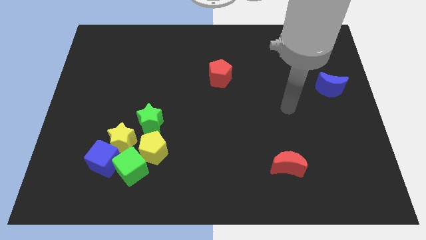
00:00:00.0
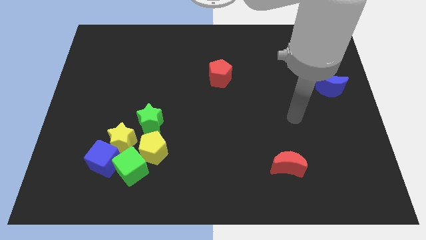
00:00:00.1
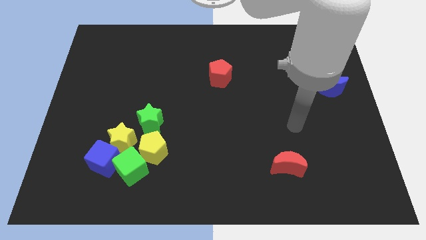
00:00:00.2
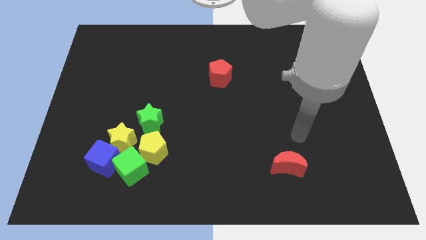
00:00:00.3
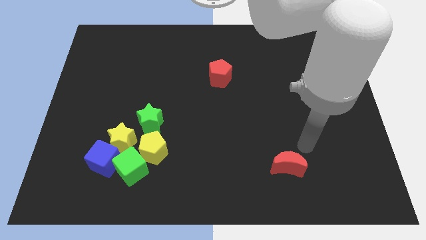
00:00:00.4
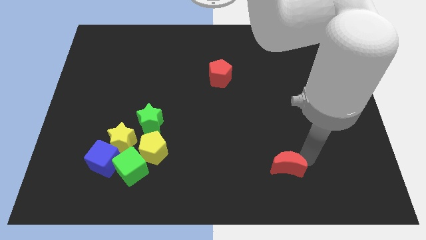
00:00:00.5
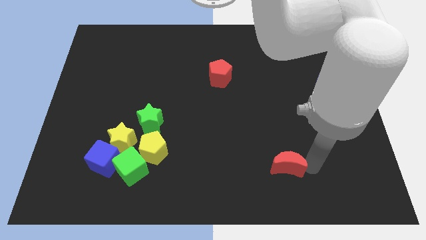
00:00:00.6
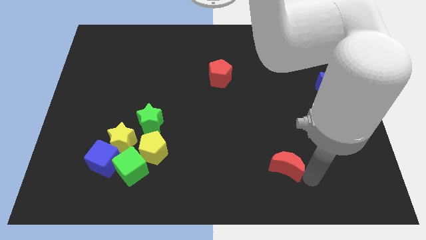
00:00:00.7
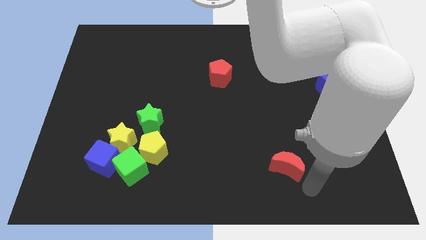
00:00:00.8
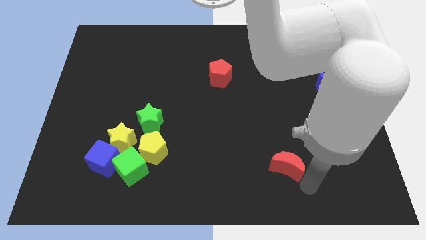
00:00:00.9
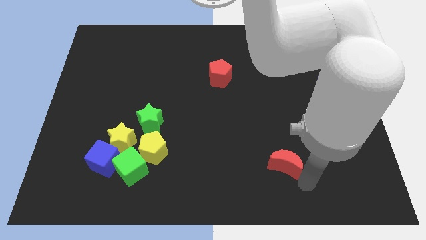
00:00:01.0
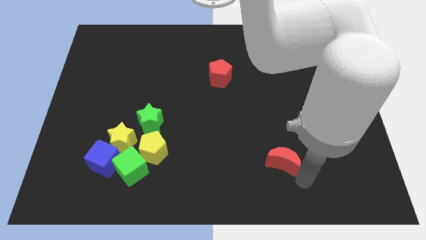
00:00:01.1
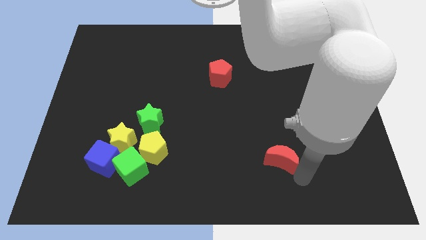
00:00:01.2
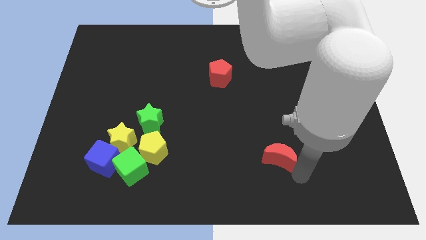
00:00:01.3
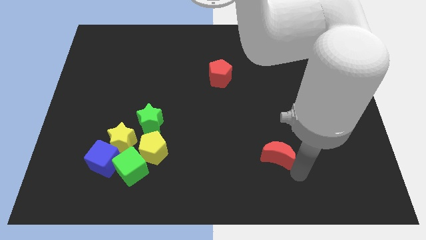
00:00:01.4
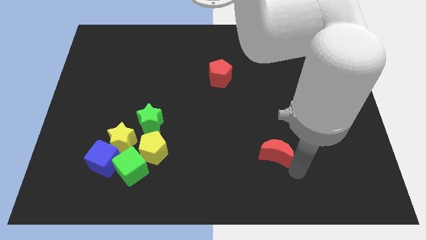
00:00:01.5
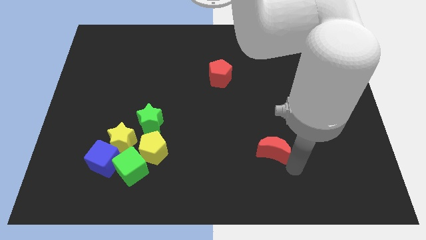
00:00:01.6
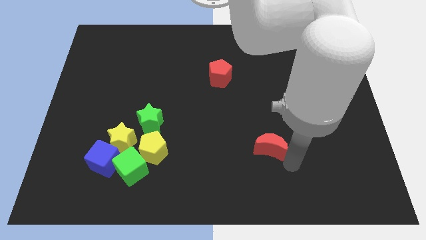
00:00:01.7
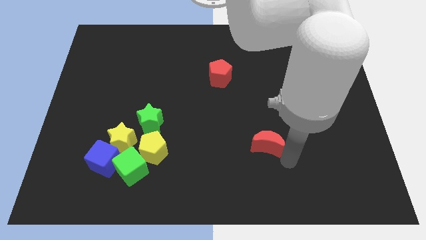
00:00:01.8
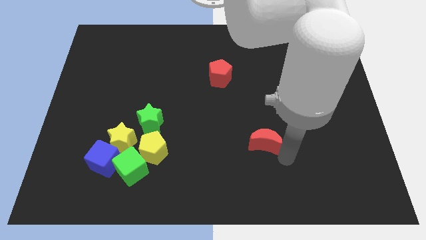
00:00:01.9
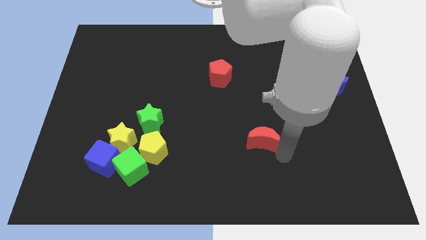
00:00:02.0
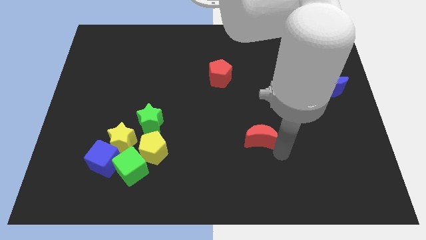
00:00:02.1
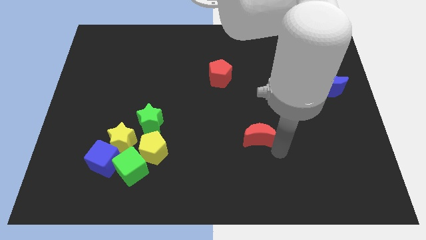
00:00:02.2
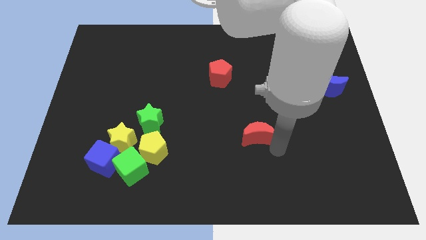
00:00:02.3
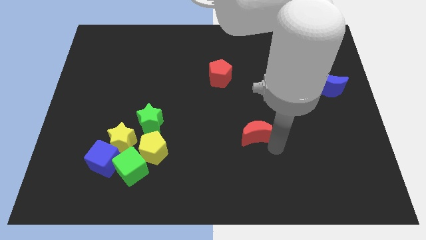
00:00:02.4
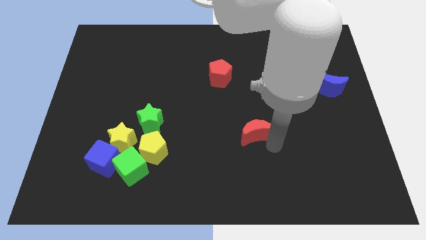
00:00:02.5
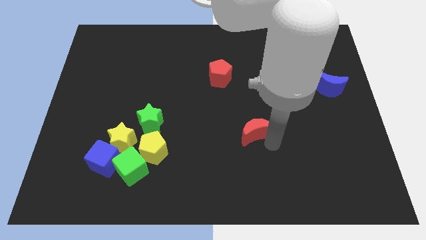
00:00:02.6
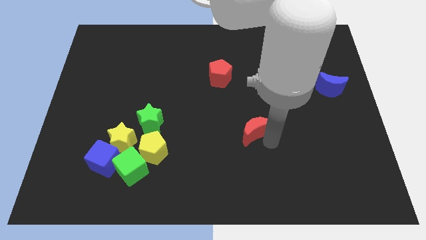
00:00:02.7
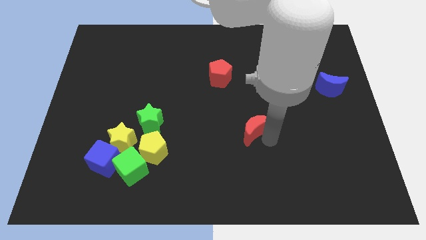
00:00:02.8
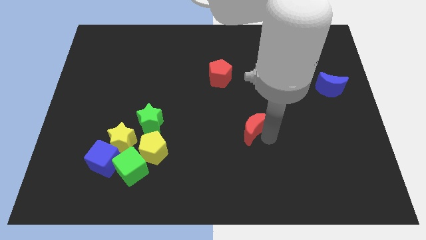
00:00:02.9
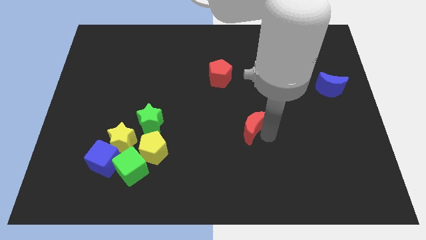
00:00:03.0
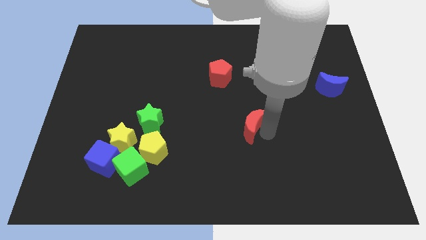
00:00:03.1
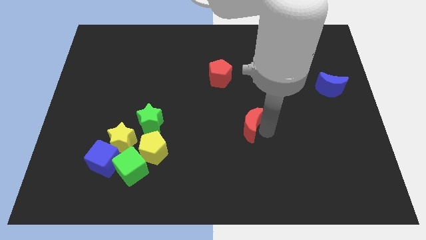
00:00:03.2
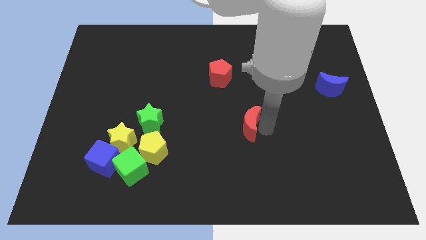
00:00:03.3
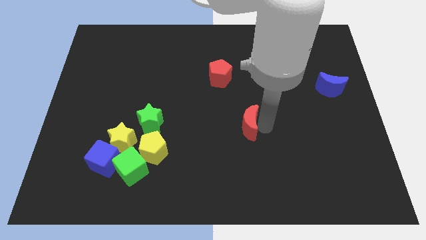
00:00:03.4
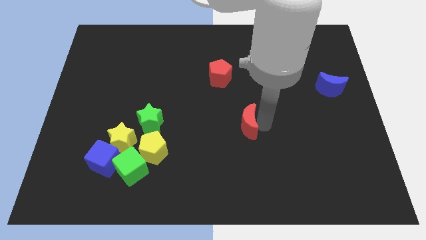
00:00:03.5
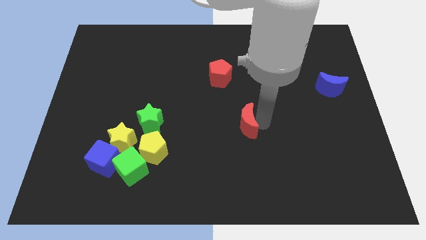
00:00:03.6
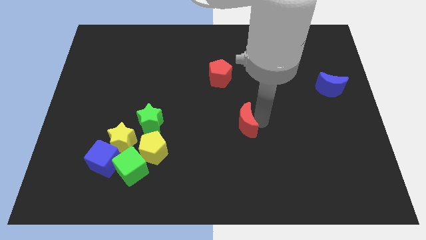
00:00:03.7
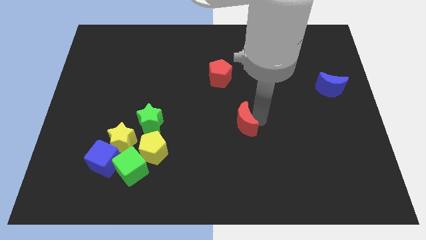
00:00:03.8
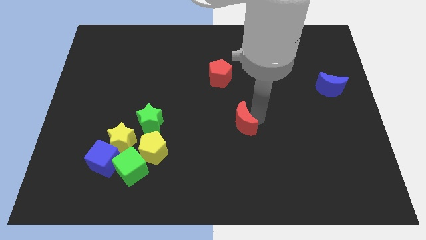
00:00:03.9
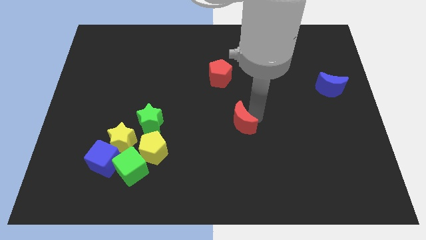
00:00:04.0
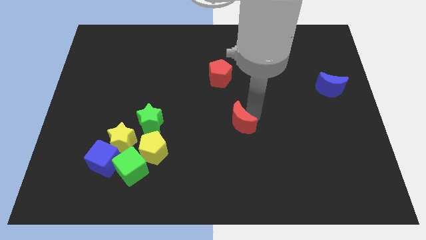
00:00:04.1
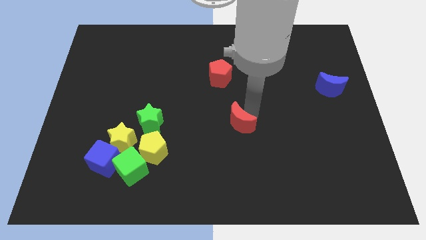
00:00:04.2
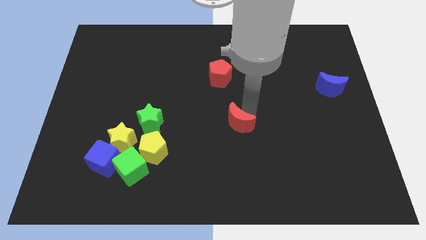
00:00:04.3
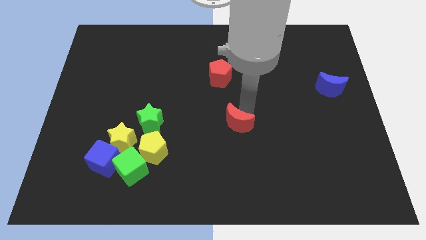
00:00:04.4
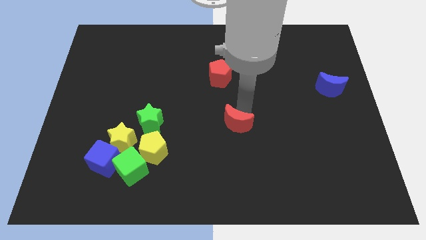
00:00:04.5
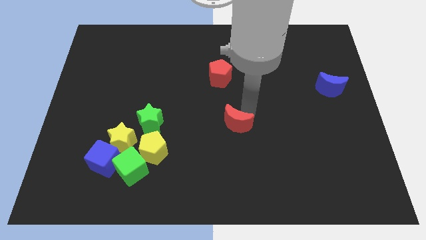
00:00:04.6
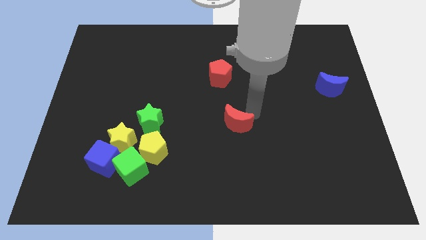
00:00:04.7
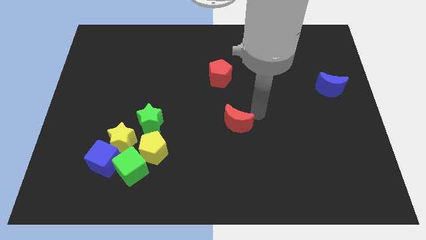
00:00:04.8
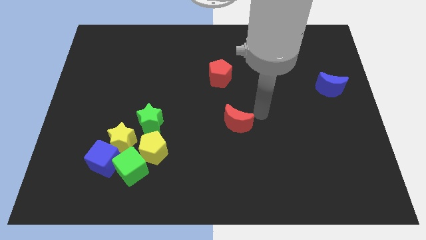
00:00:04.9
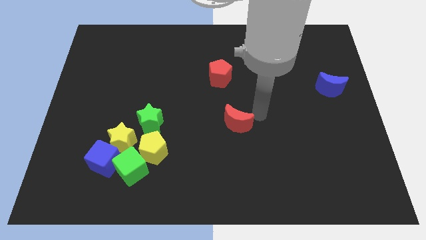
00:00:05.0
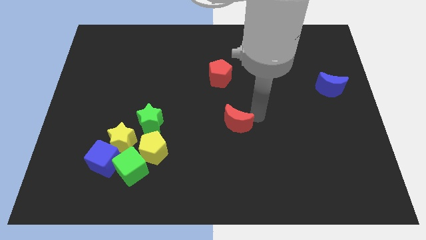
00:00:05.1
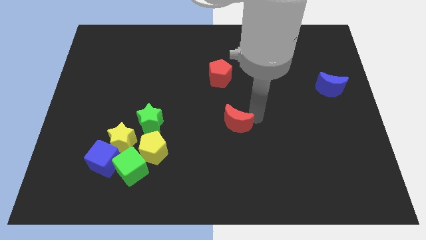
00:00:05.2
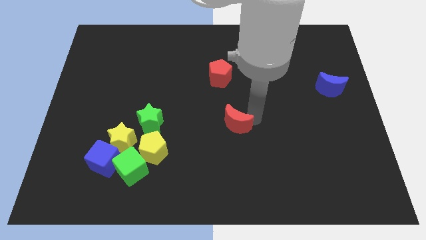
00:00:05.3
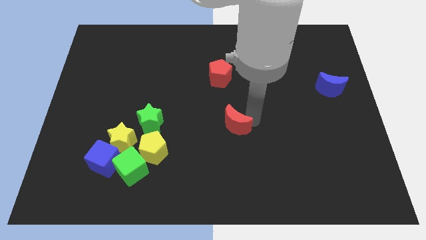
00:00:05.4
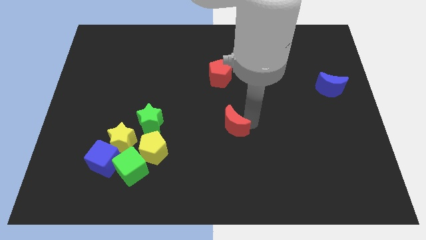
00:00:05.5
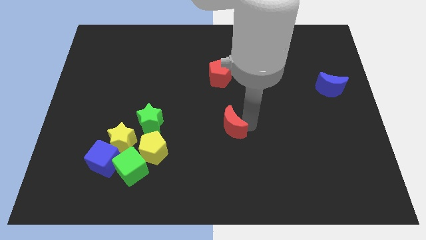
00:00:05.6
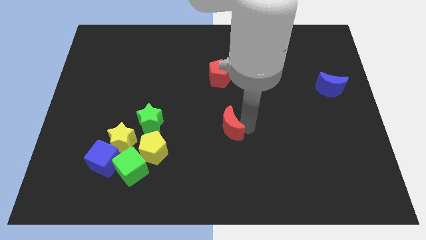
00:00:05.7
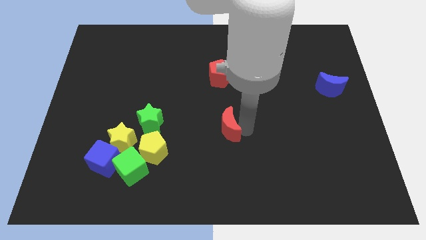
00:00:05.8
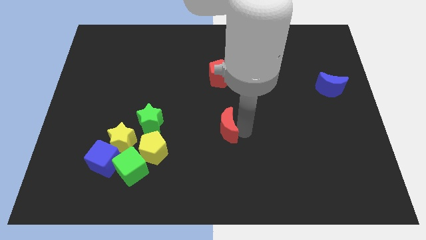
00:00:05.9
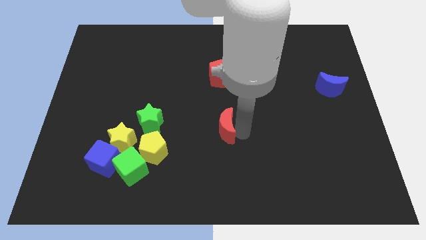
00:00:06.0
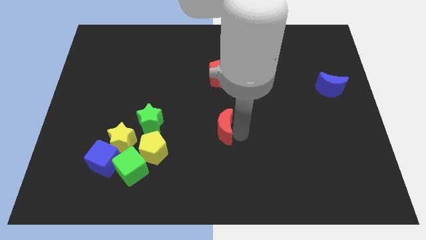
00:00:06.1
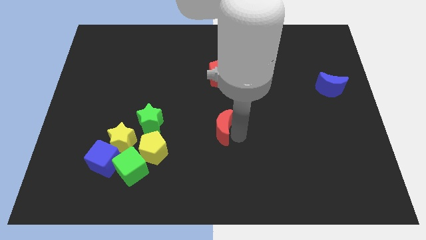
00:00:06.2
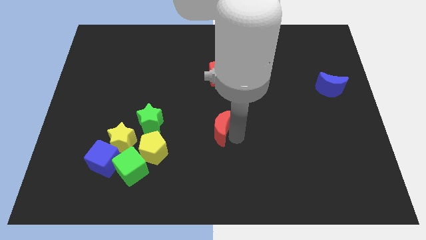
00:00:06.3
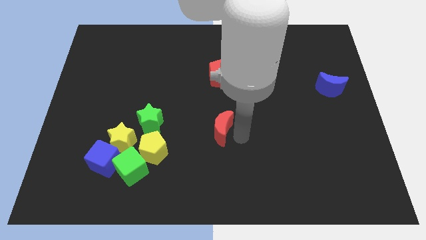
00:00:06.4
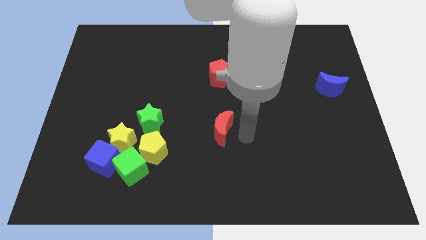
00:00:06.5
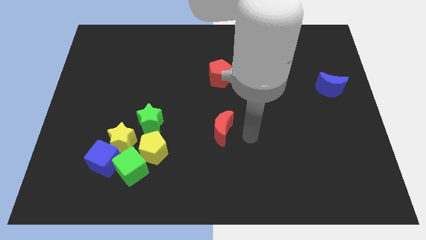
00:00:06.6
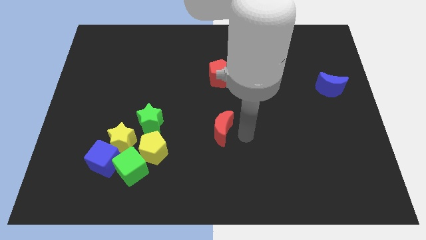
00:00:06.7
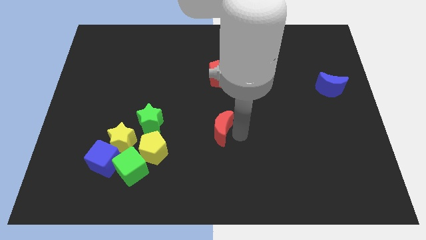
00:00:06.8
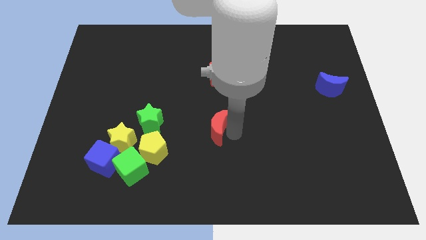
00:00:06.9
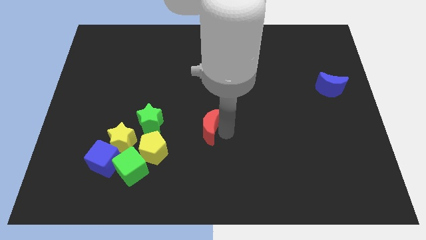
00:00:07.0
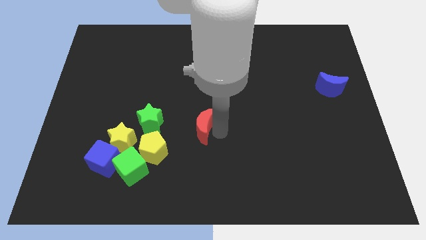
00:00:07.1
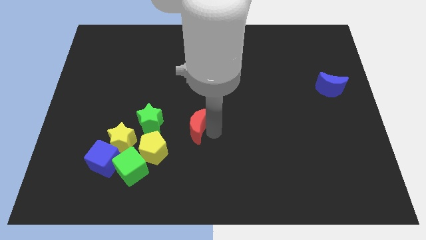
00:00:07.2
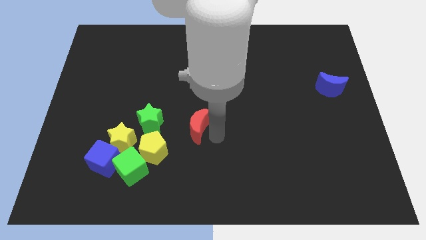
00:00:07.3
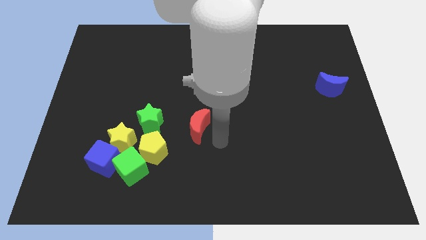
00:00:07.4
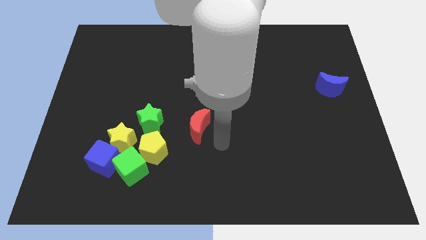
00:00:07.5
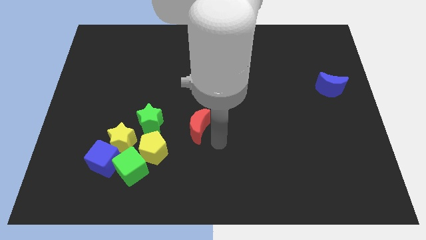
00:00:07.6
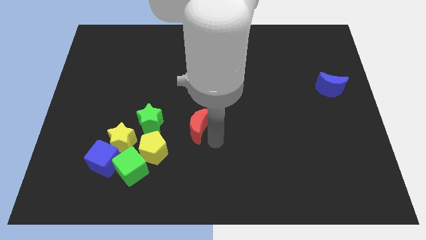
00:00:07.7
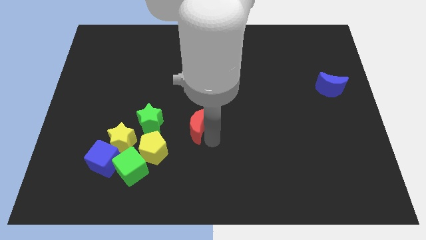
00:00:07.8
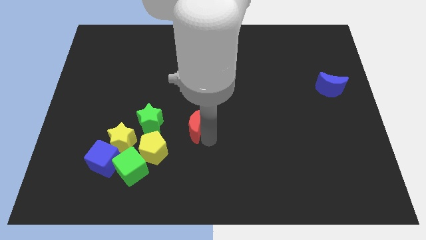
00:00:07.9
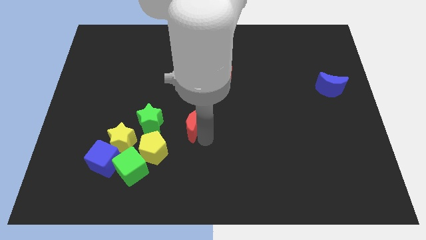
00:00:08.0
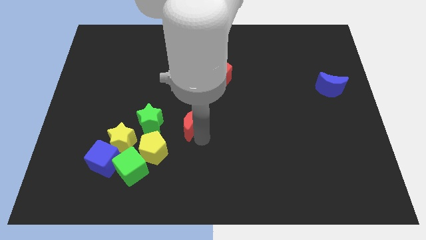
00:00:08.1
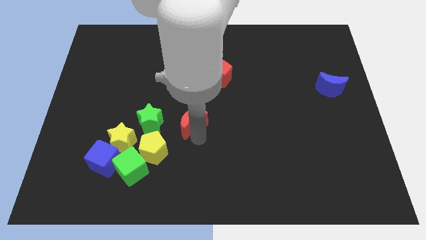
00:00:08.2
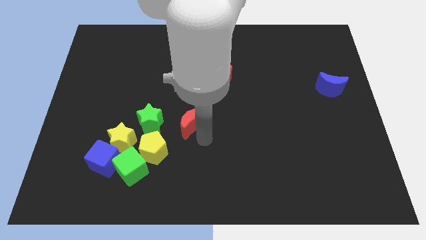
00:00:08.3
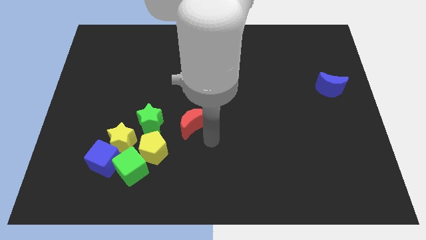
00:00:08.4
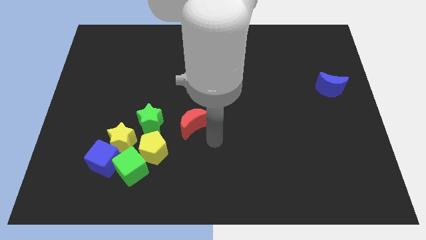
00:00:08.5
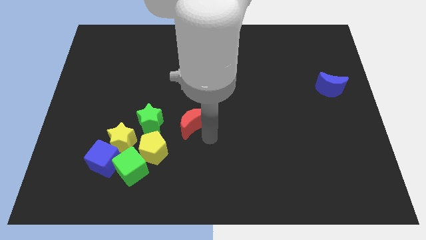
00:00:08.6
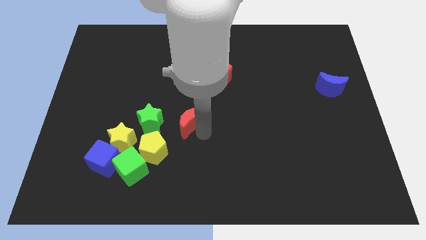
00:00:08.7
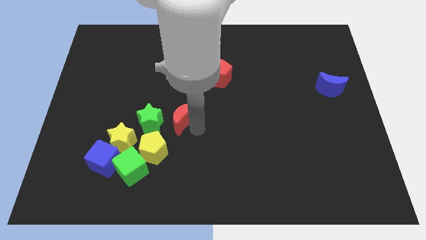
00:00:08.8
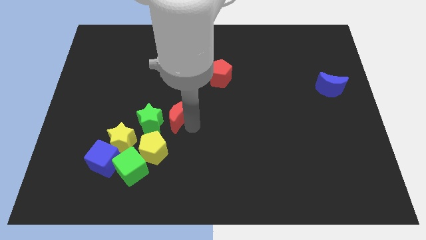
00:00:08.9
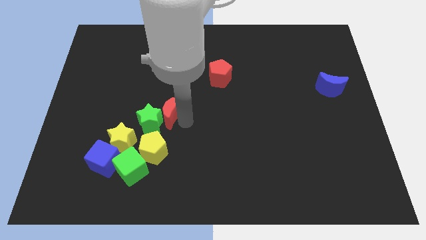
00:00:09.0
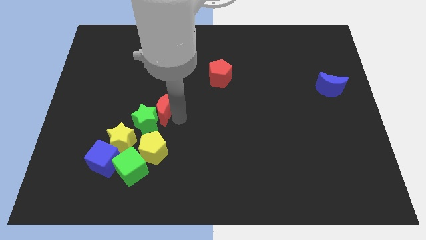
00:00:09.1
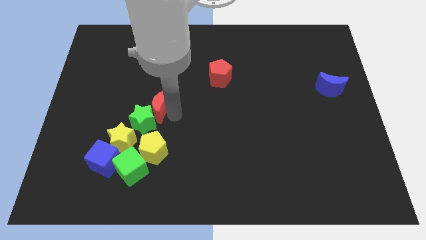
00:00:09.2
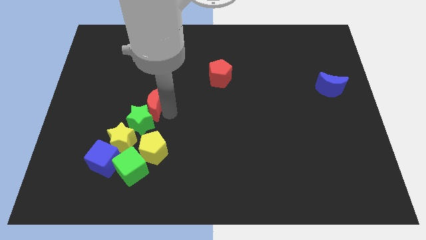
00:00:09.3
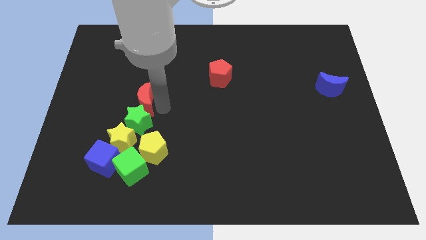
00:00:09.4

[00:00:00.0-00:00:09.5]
push the red moon to the top left side of the green star
